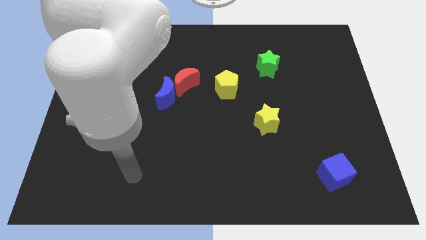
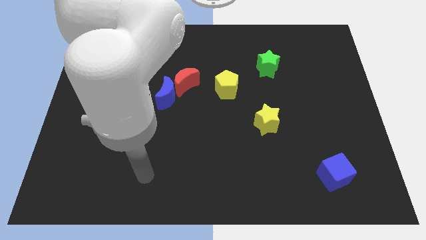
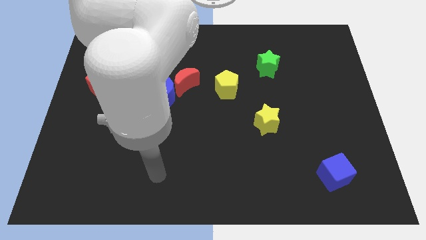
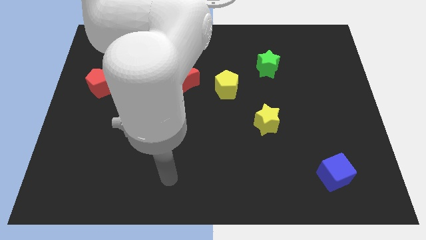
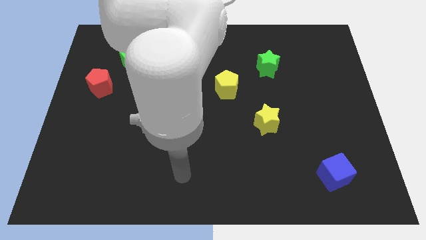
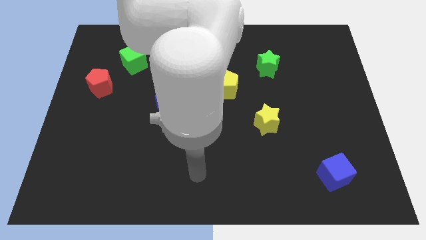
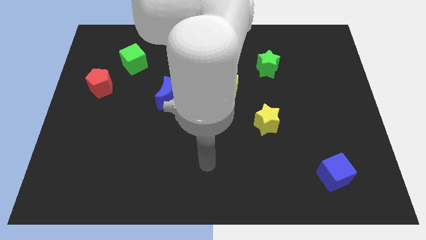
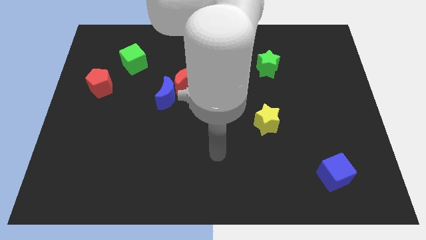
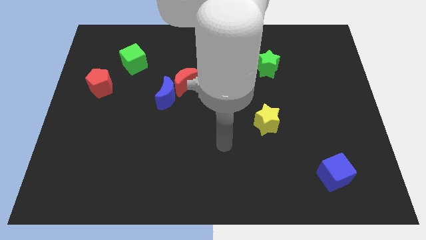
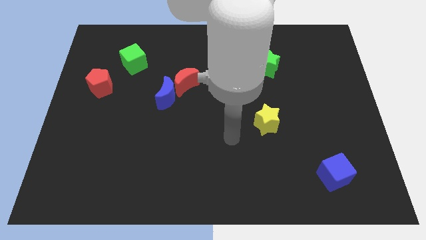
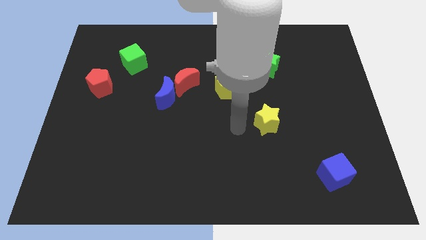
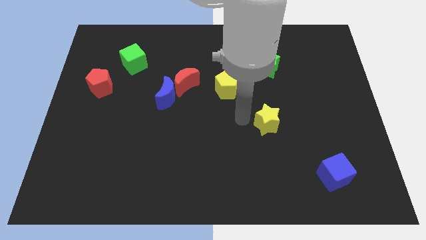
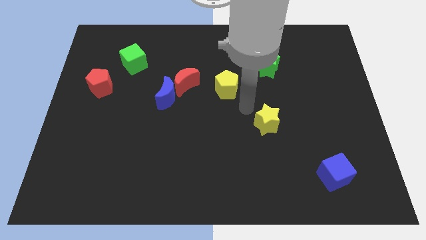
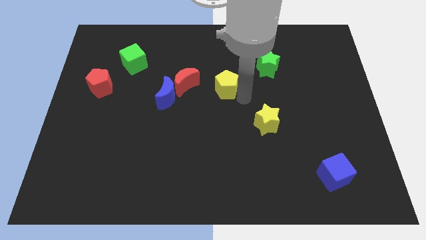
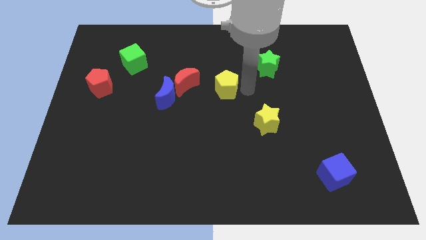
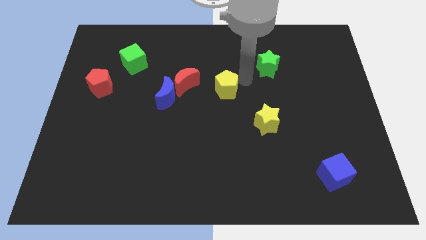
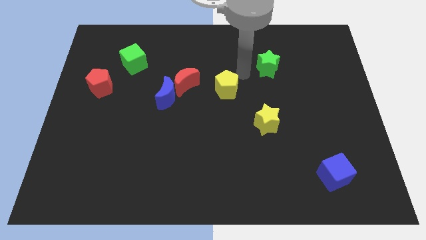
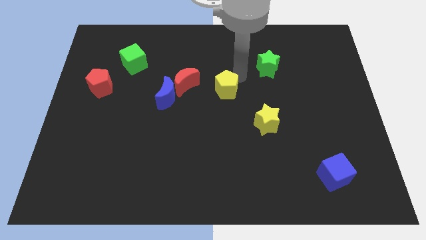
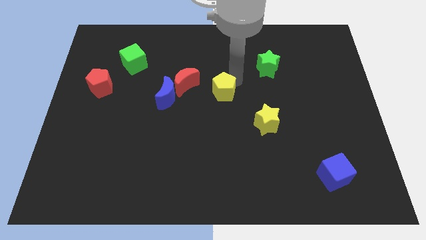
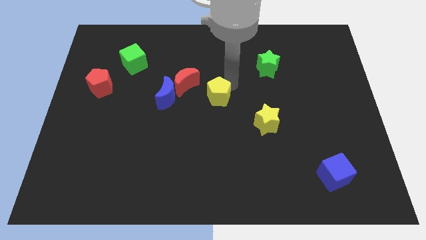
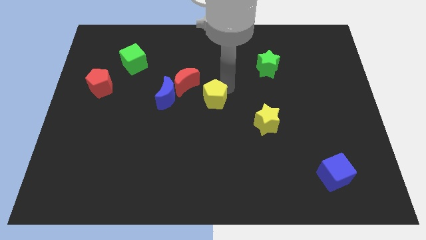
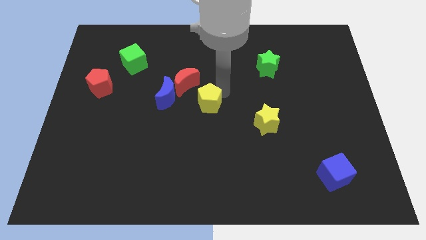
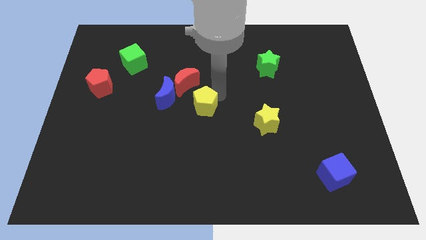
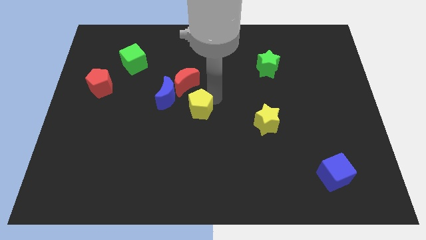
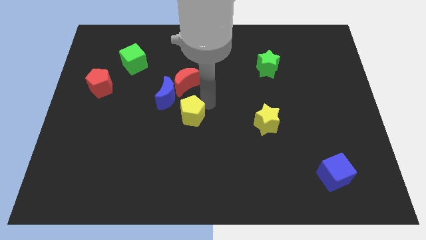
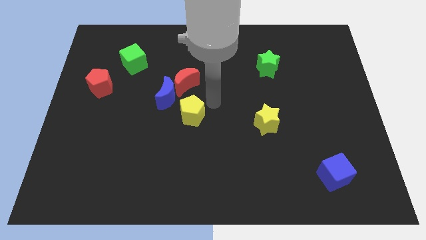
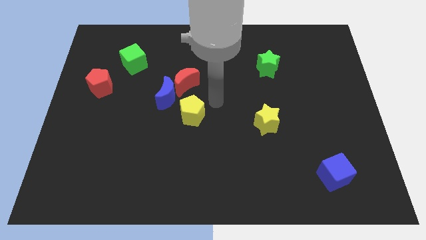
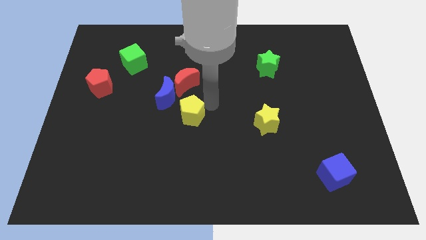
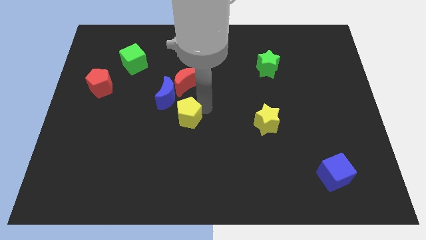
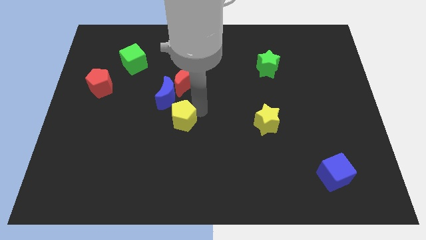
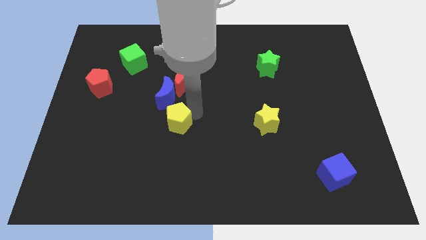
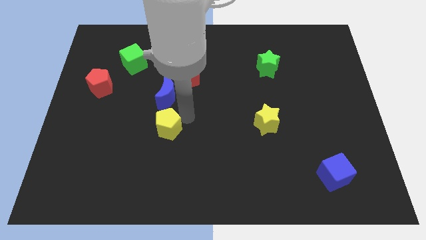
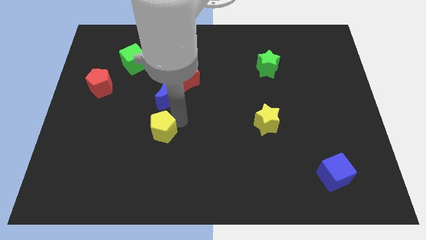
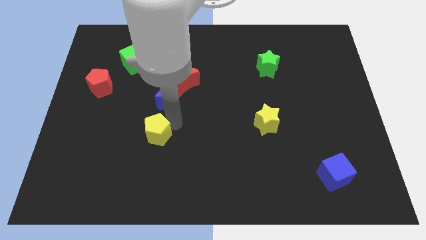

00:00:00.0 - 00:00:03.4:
move the yellow pentagon down and to the left

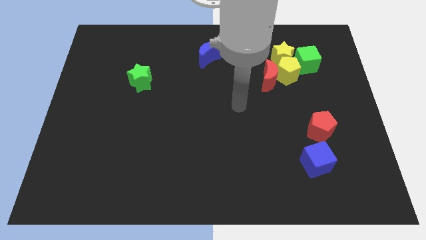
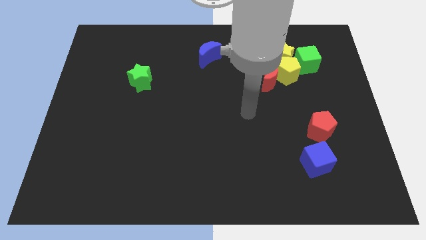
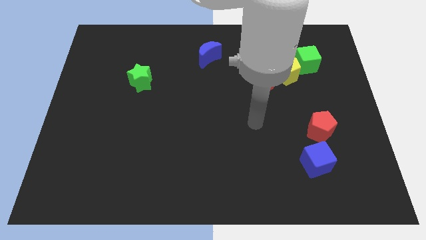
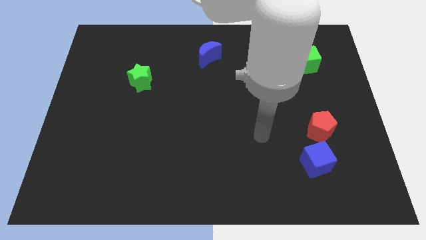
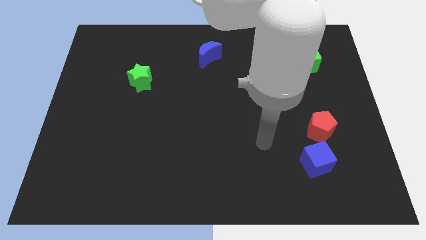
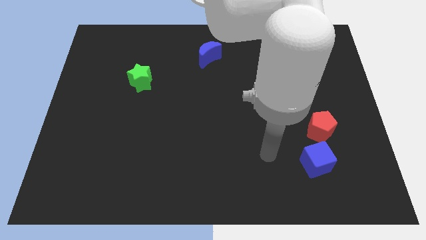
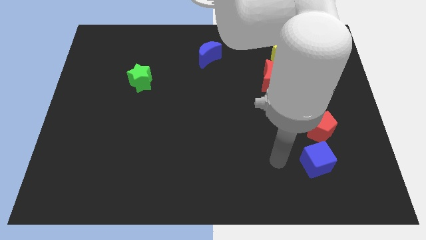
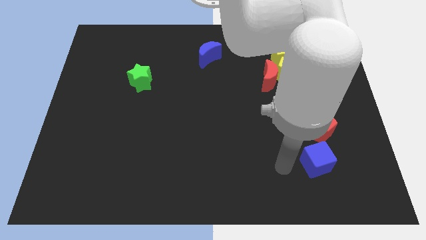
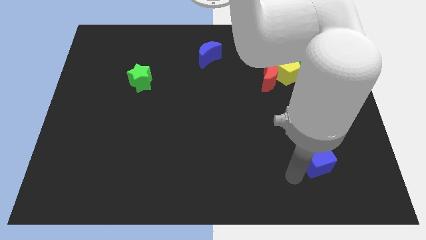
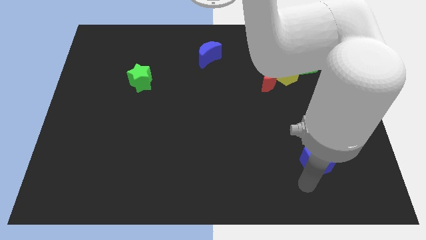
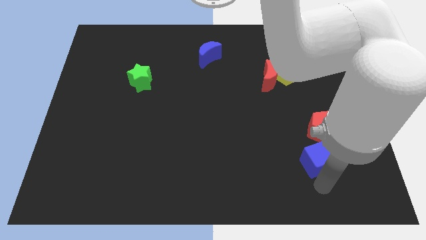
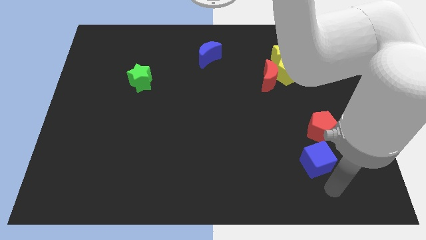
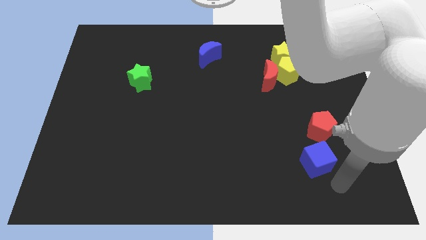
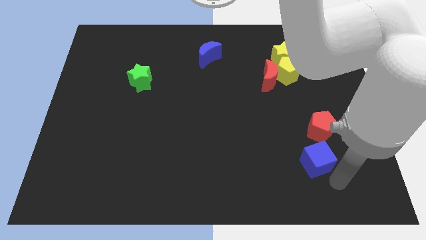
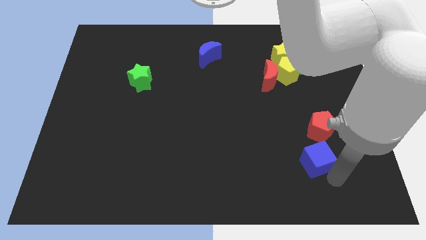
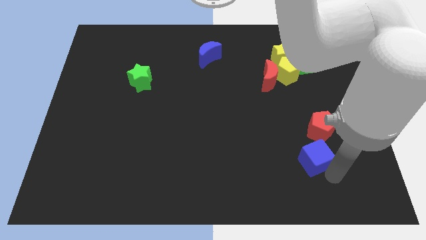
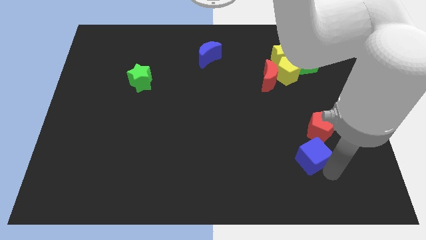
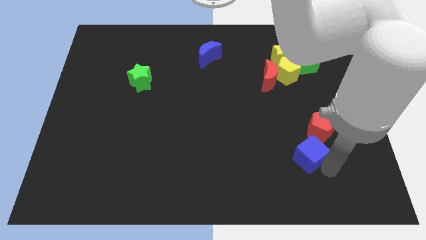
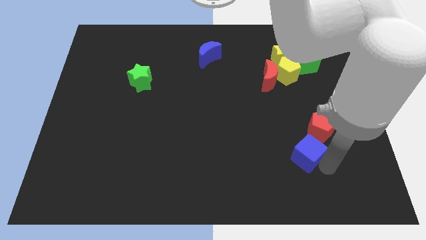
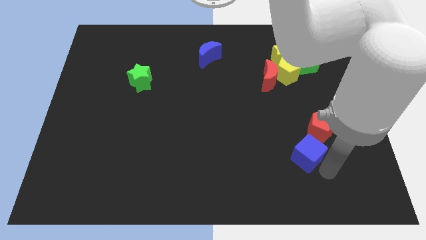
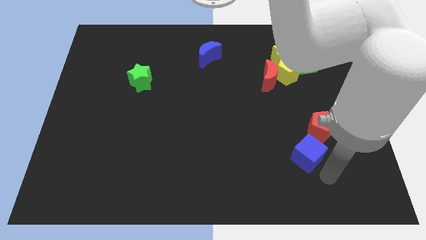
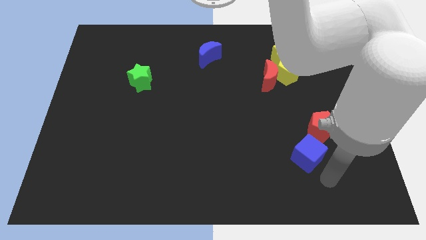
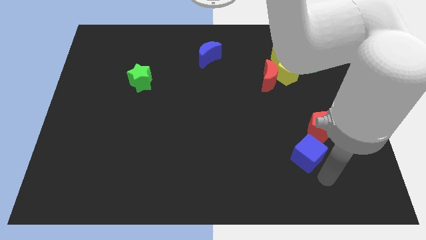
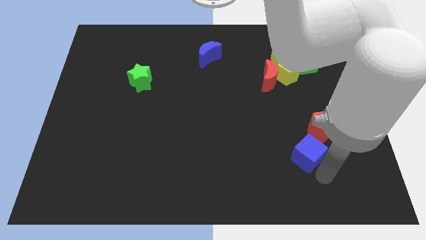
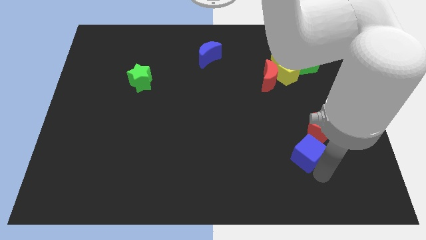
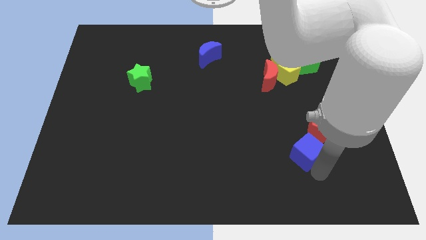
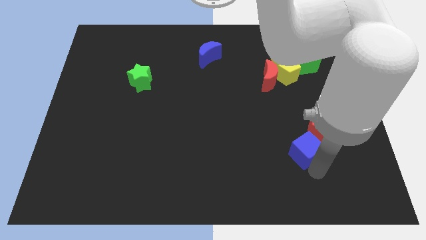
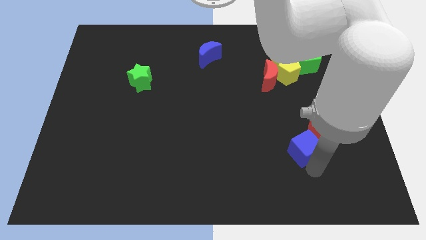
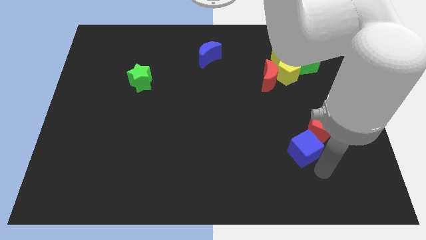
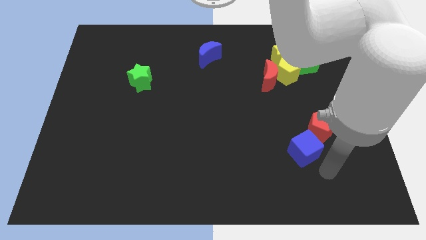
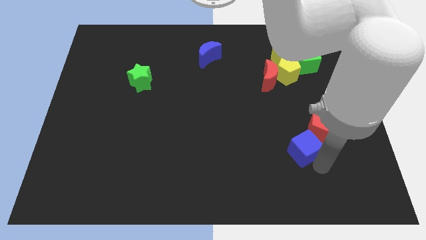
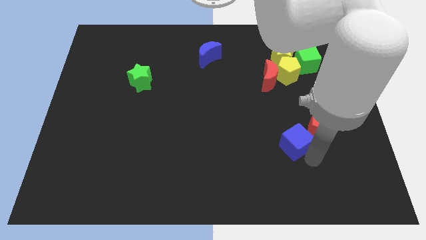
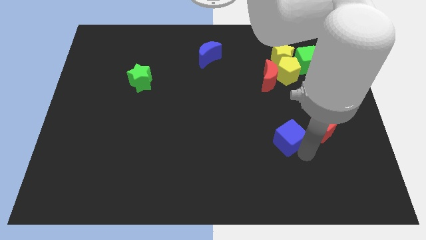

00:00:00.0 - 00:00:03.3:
push the blue cube up and left slightly

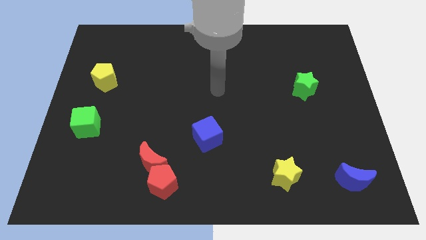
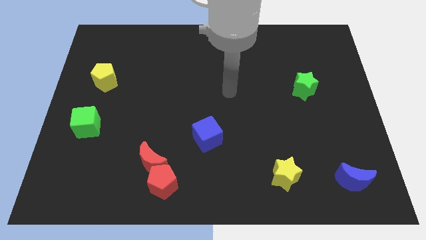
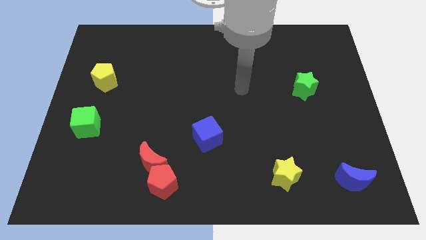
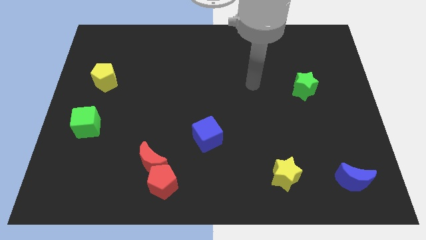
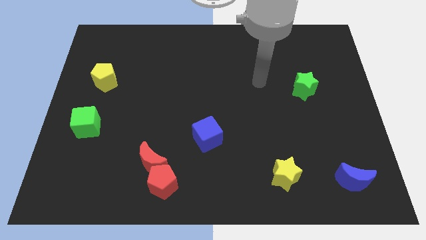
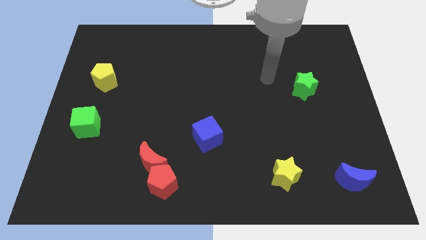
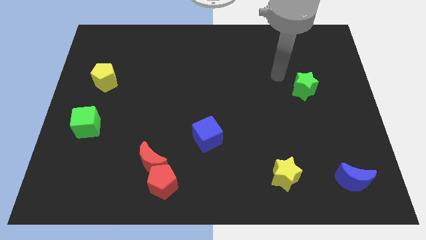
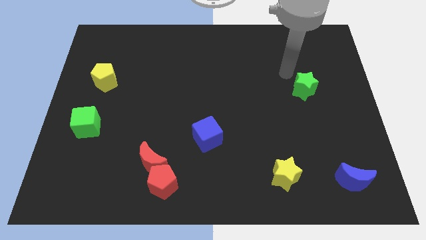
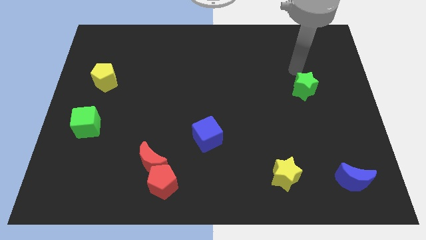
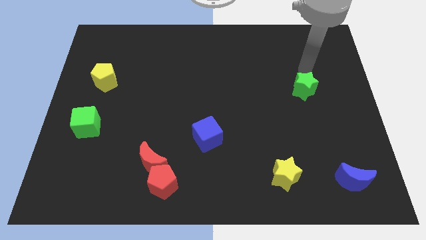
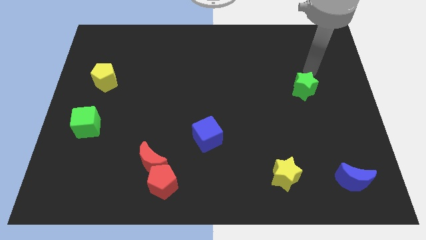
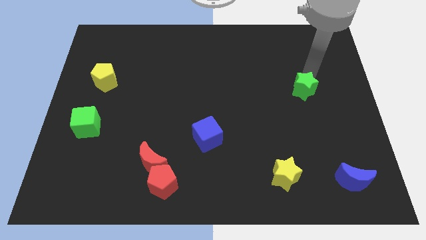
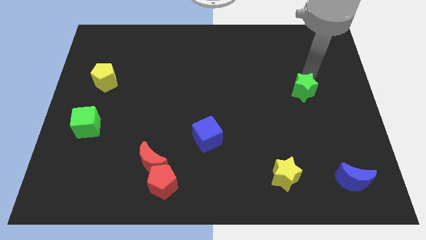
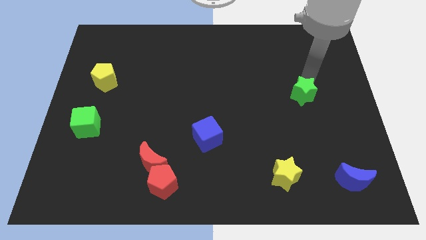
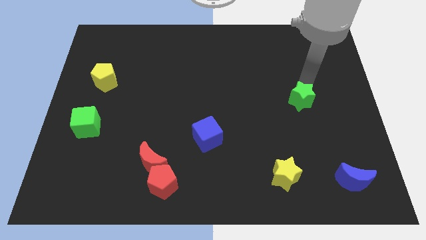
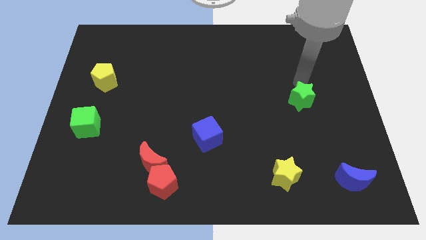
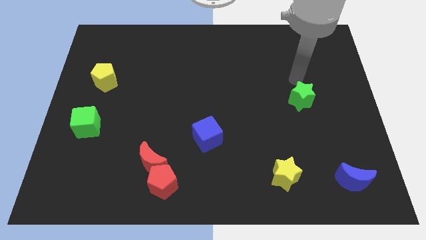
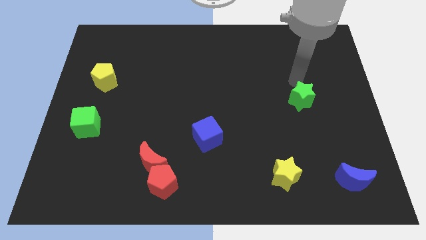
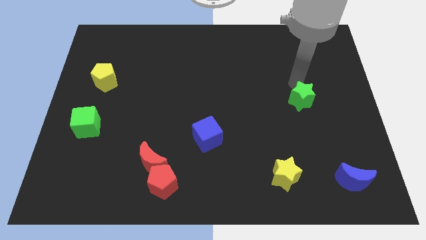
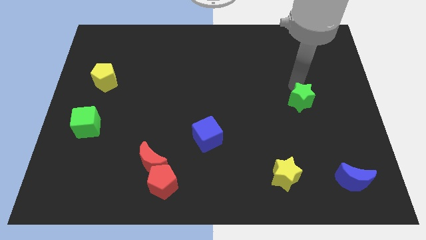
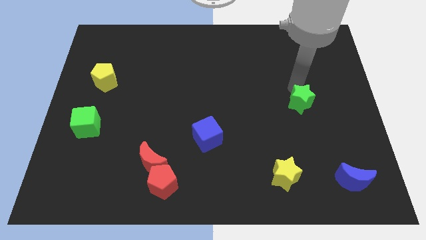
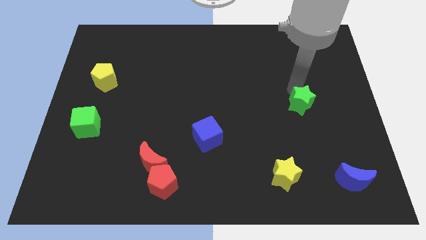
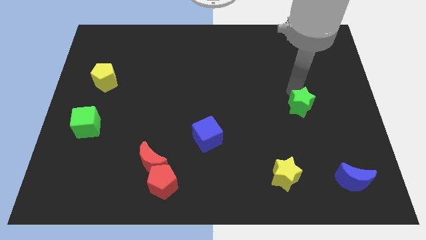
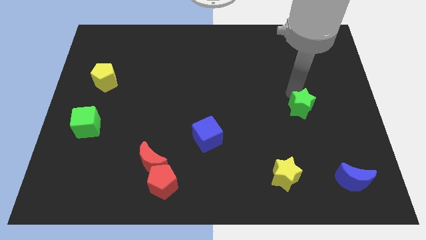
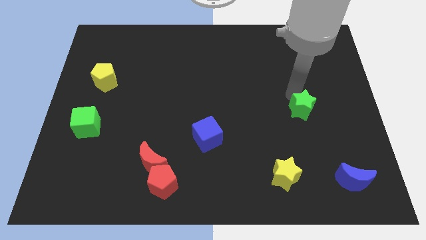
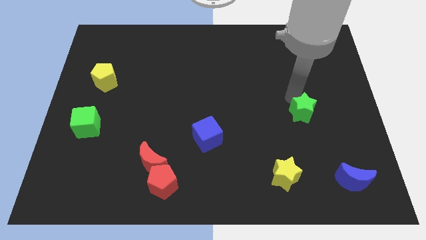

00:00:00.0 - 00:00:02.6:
slide the green star downwards a bit
